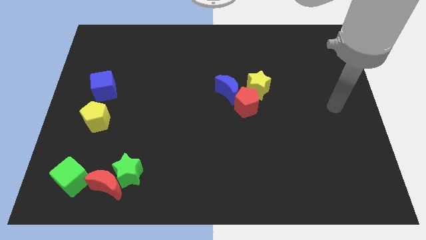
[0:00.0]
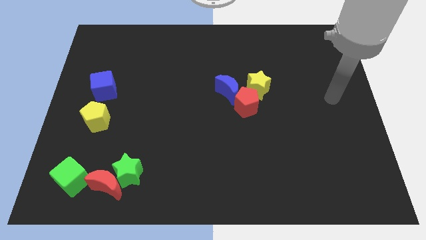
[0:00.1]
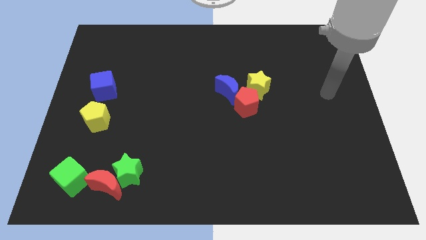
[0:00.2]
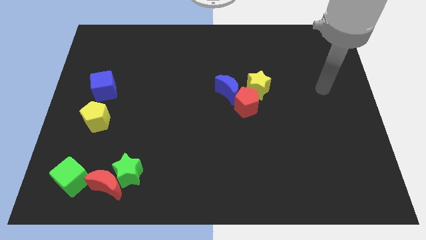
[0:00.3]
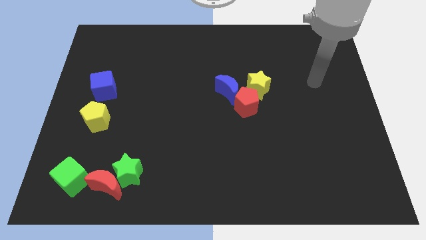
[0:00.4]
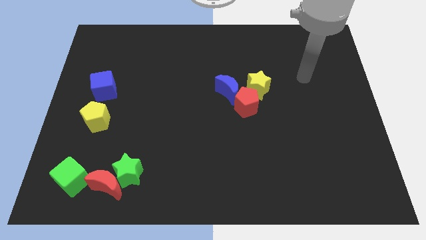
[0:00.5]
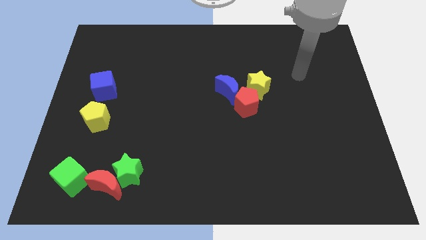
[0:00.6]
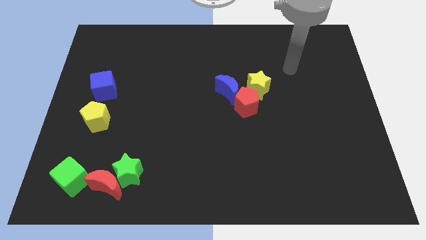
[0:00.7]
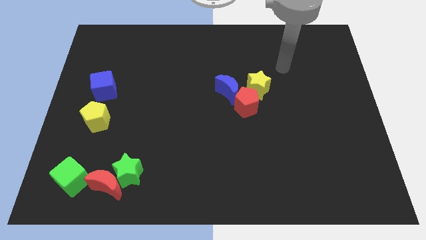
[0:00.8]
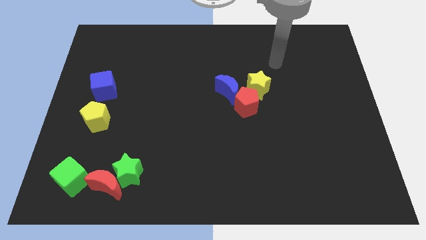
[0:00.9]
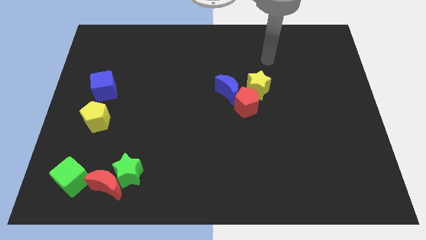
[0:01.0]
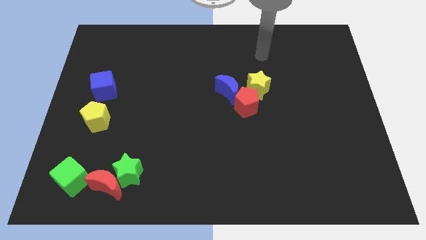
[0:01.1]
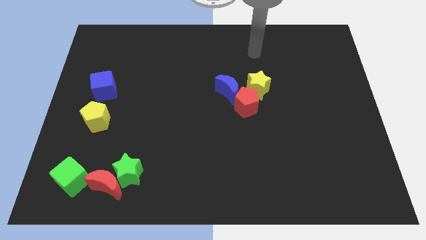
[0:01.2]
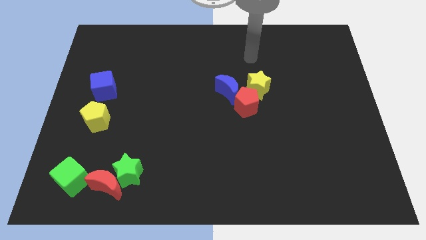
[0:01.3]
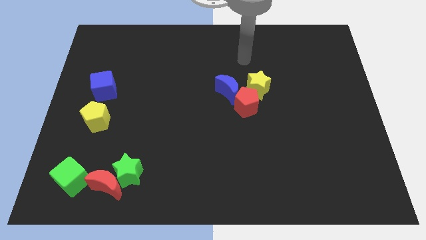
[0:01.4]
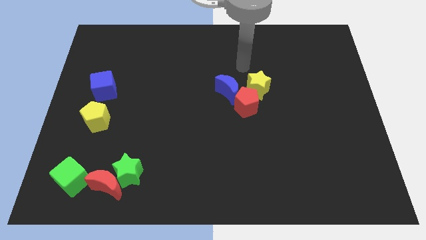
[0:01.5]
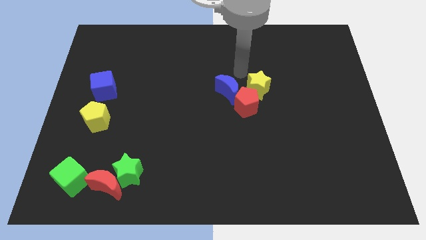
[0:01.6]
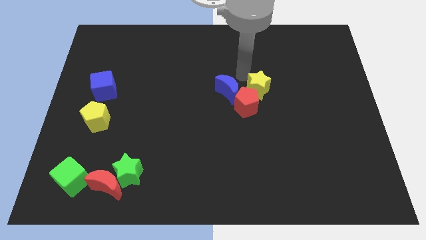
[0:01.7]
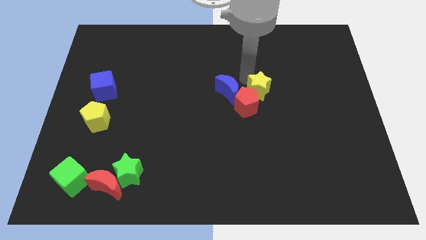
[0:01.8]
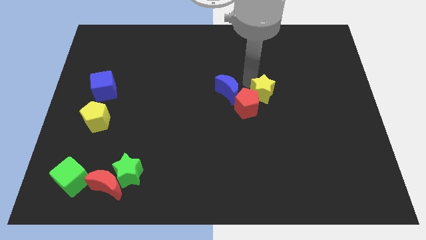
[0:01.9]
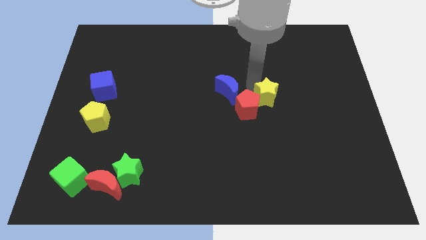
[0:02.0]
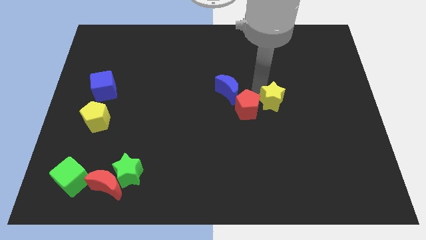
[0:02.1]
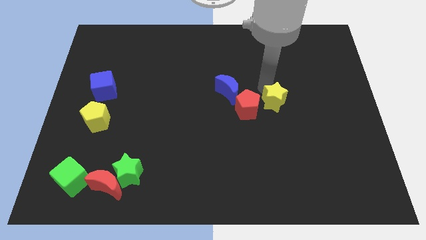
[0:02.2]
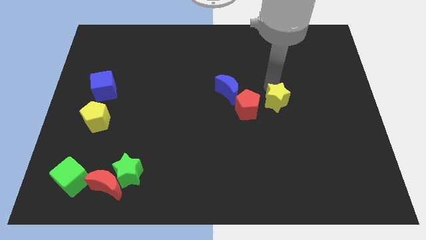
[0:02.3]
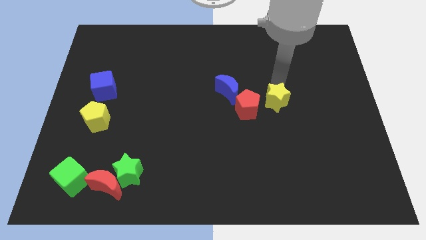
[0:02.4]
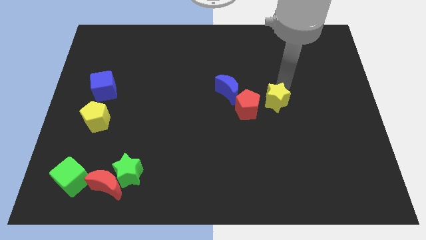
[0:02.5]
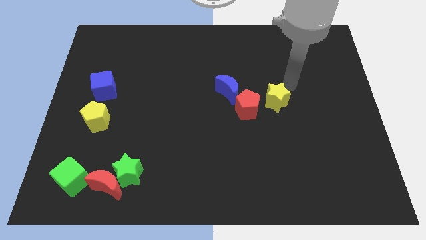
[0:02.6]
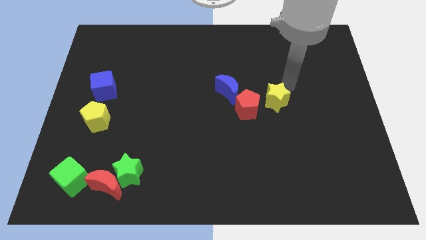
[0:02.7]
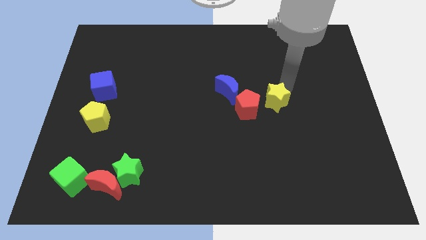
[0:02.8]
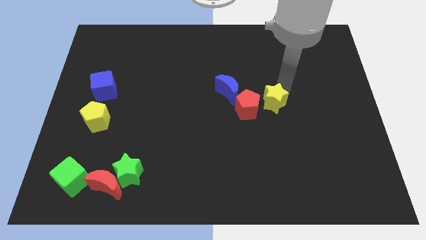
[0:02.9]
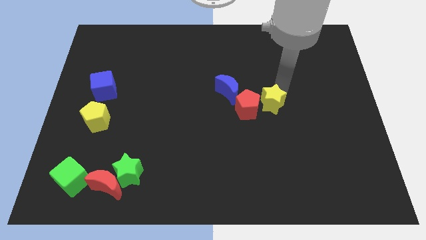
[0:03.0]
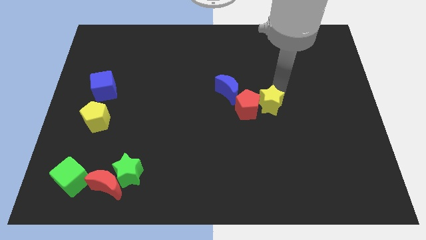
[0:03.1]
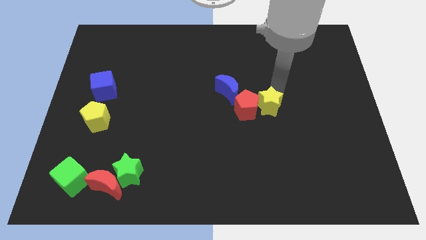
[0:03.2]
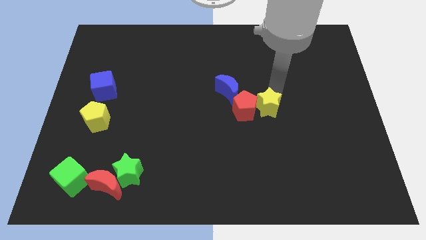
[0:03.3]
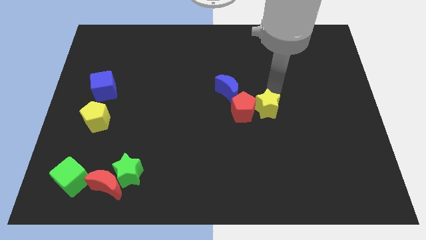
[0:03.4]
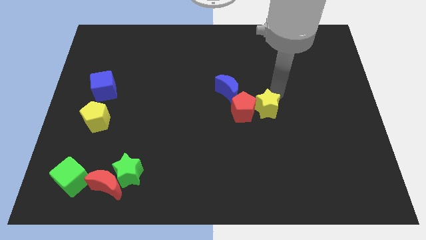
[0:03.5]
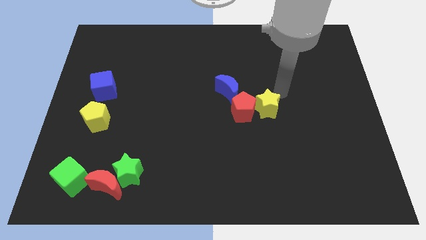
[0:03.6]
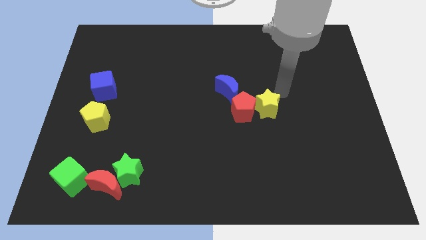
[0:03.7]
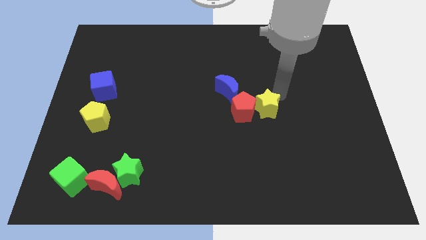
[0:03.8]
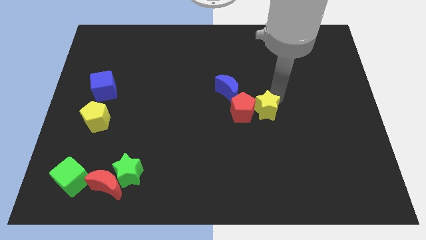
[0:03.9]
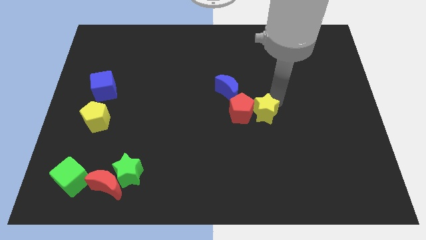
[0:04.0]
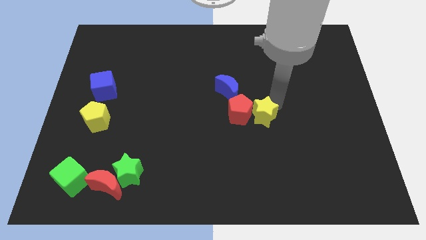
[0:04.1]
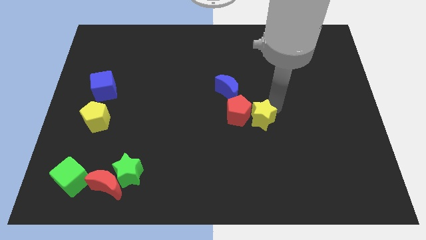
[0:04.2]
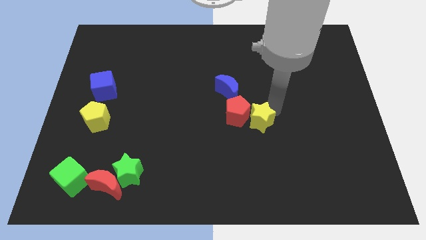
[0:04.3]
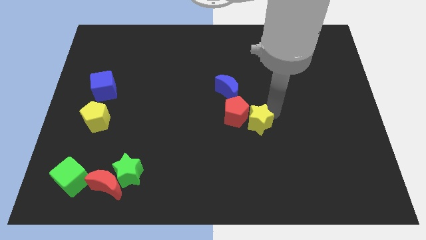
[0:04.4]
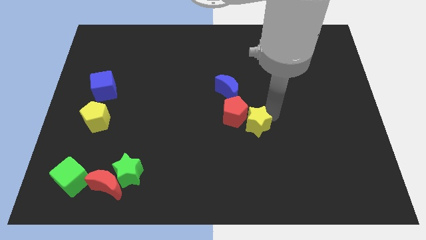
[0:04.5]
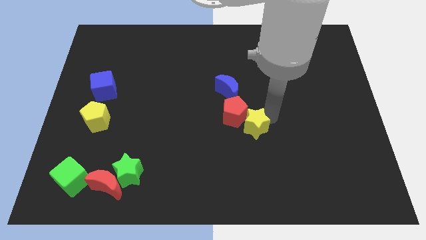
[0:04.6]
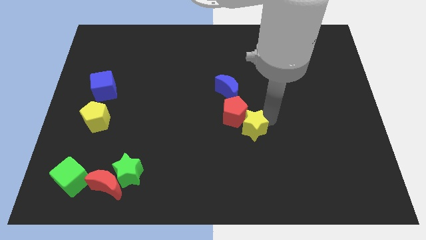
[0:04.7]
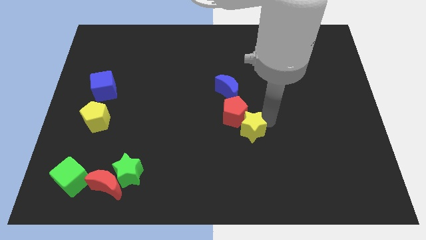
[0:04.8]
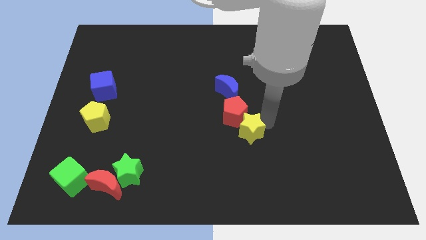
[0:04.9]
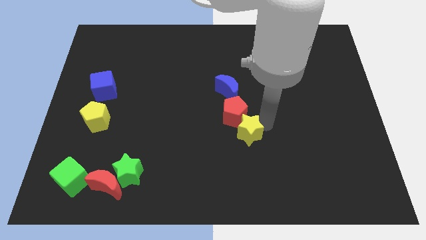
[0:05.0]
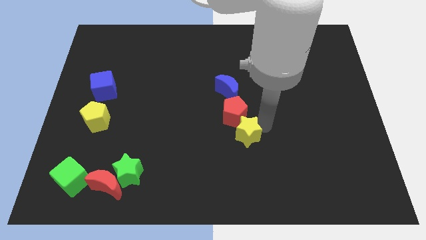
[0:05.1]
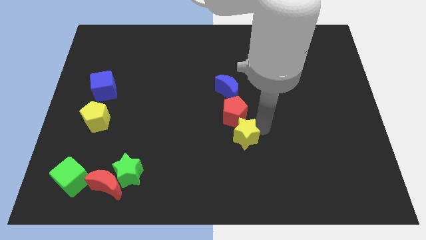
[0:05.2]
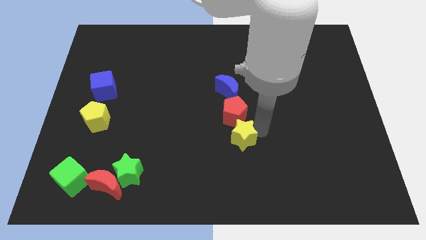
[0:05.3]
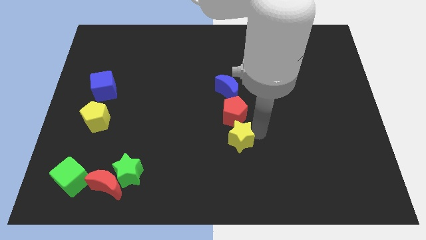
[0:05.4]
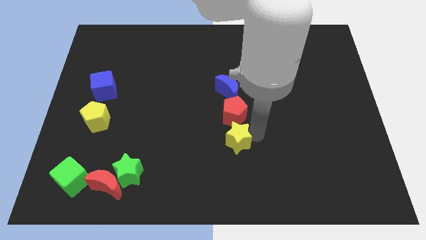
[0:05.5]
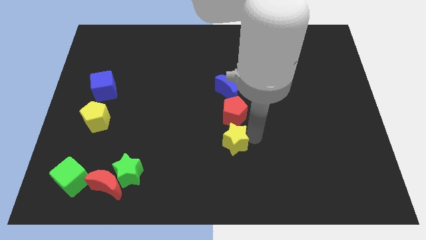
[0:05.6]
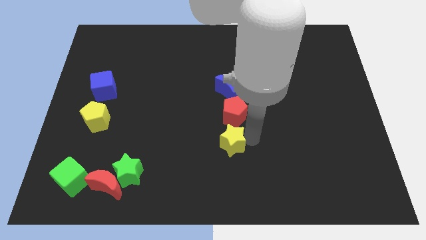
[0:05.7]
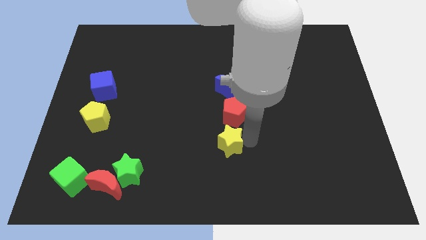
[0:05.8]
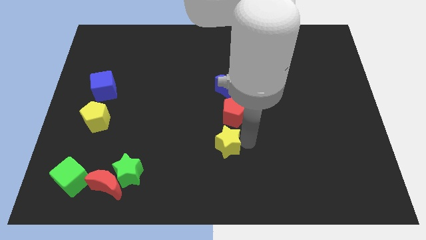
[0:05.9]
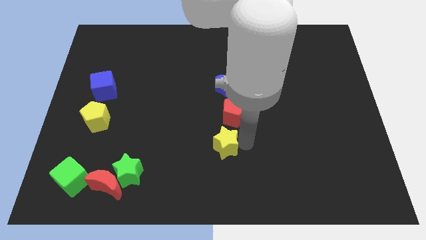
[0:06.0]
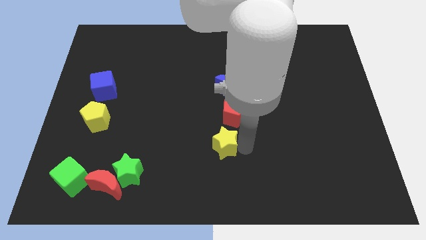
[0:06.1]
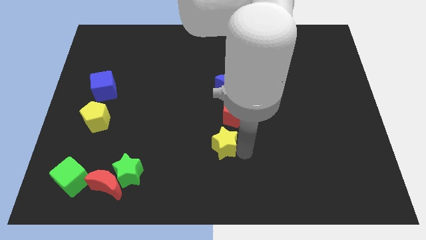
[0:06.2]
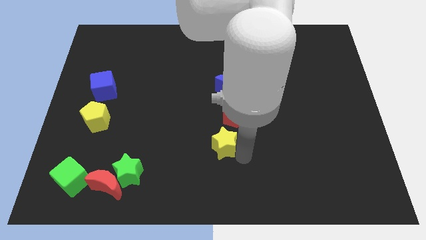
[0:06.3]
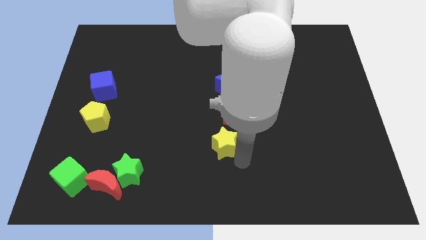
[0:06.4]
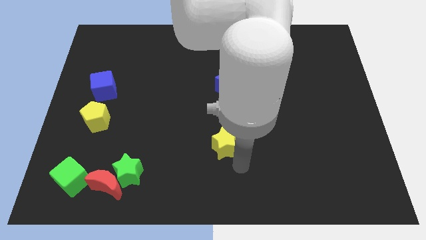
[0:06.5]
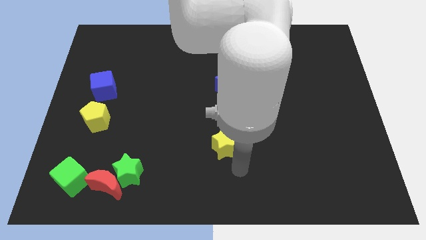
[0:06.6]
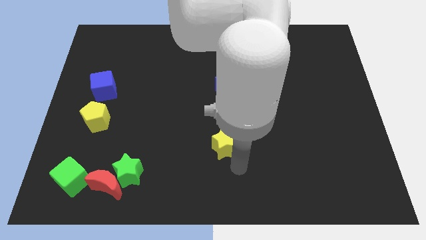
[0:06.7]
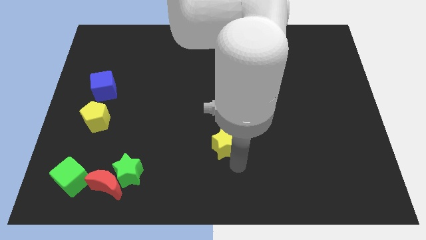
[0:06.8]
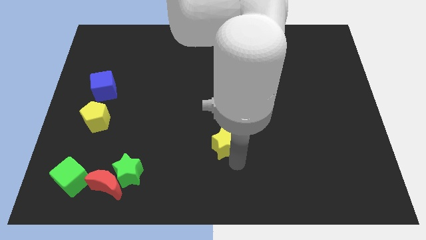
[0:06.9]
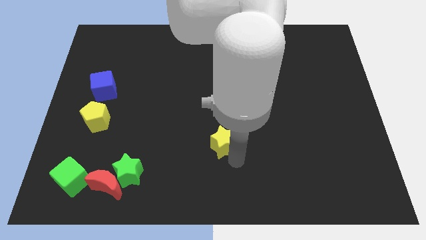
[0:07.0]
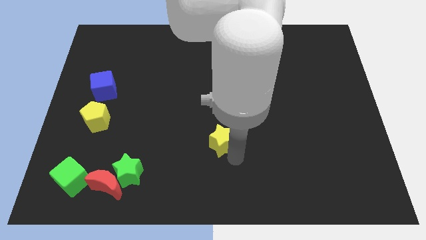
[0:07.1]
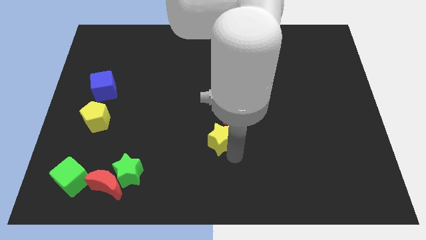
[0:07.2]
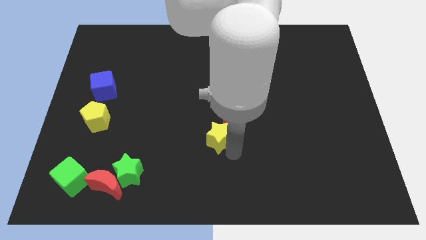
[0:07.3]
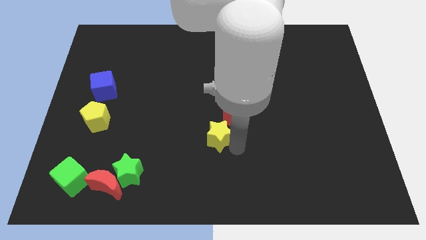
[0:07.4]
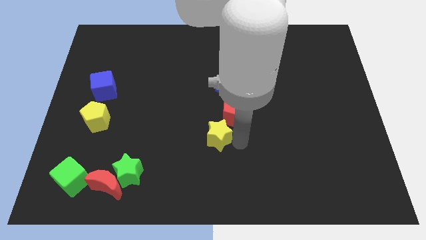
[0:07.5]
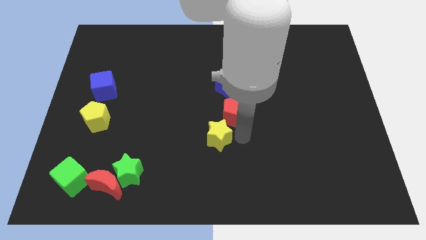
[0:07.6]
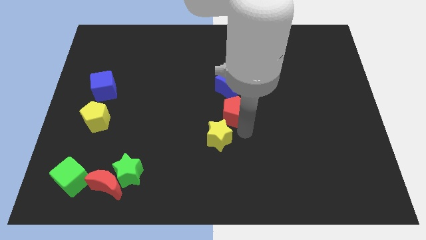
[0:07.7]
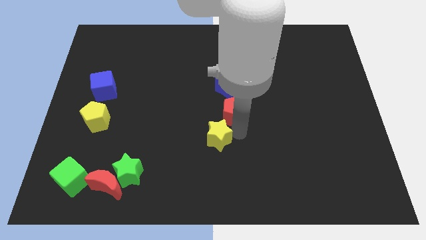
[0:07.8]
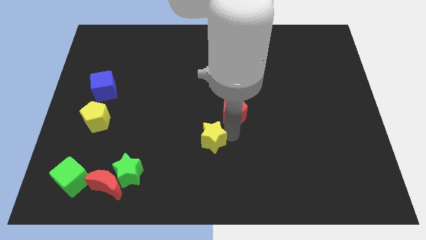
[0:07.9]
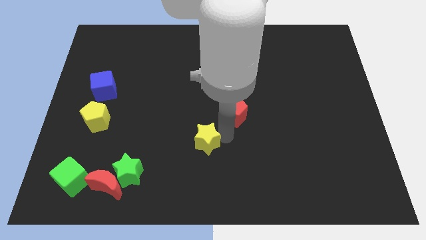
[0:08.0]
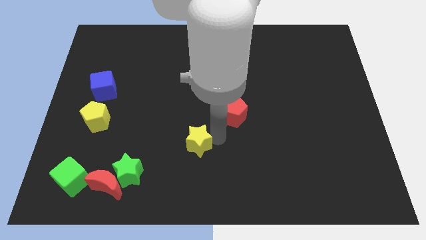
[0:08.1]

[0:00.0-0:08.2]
push the yellow star downwards and to the left diagonally

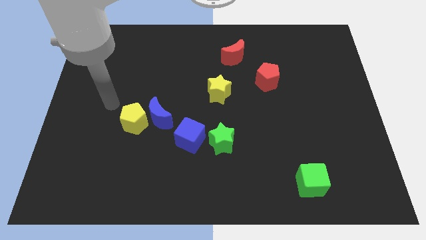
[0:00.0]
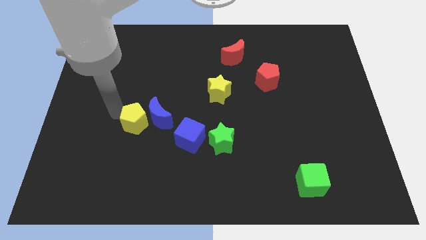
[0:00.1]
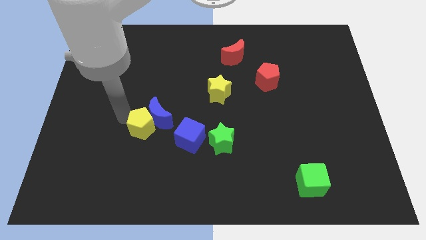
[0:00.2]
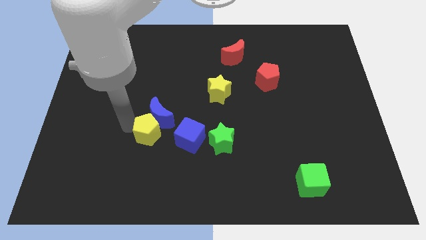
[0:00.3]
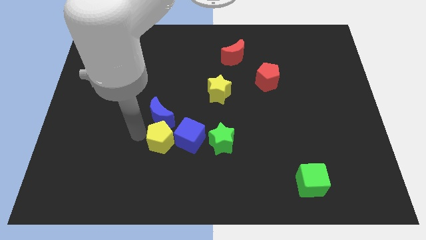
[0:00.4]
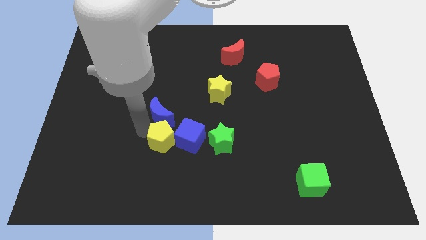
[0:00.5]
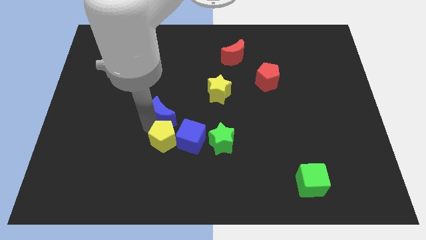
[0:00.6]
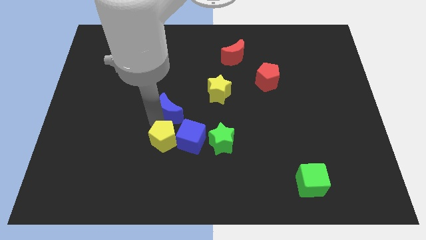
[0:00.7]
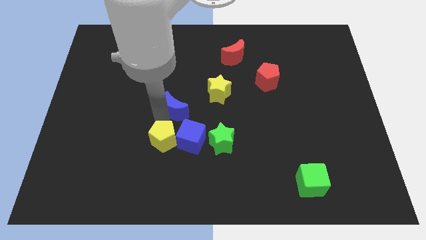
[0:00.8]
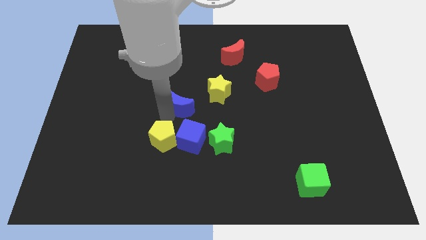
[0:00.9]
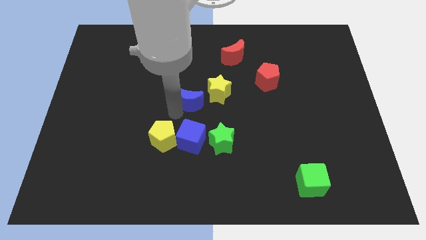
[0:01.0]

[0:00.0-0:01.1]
push the blue moon somewhat upwards and then to the right
